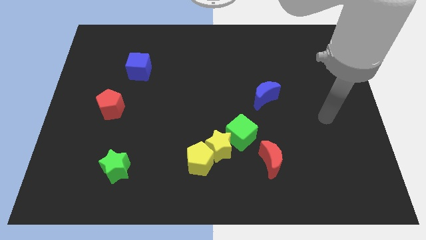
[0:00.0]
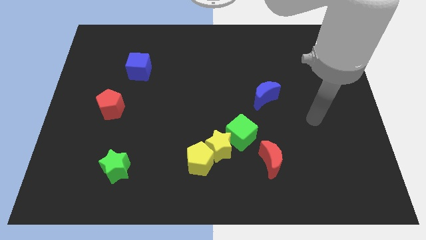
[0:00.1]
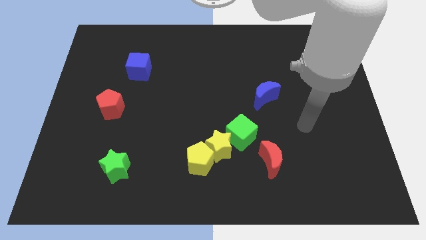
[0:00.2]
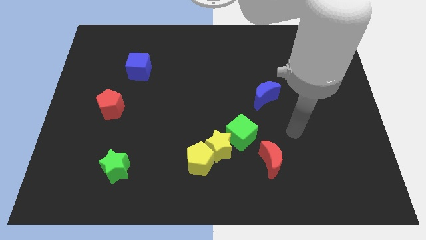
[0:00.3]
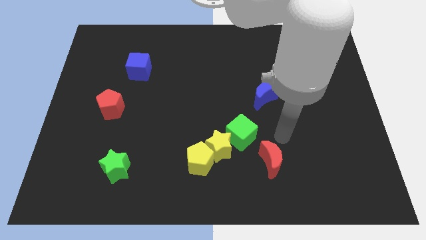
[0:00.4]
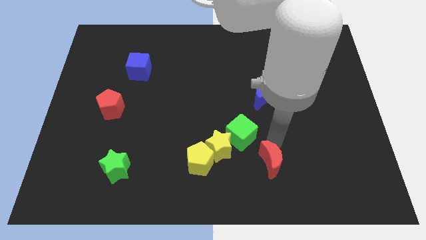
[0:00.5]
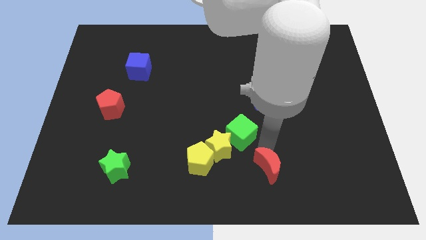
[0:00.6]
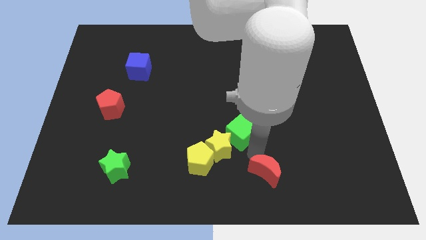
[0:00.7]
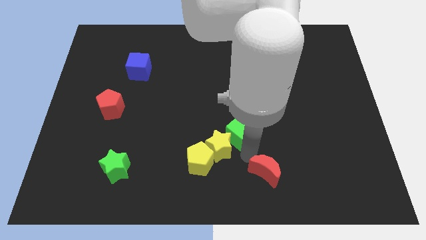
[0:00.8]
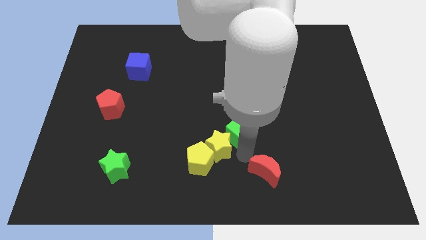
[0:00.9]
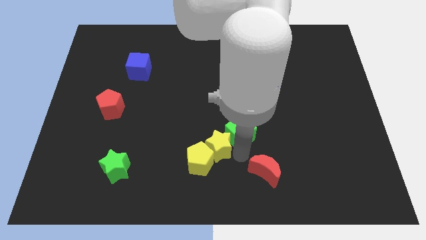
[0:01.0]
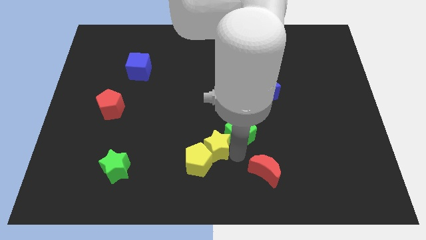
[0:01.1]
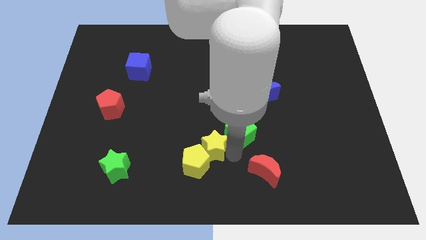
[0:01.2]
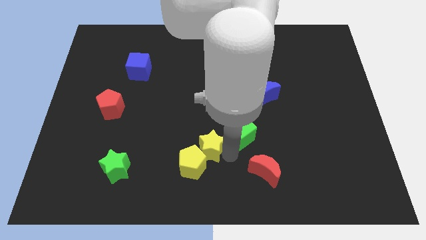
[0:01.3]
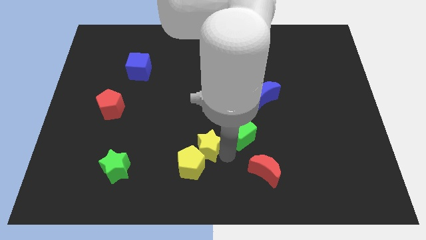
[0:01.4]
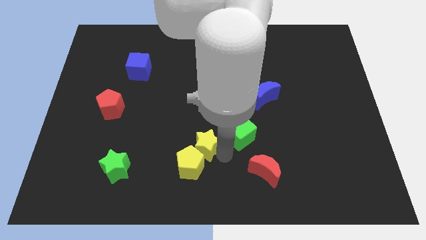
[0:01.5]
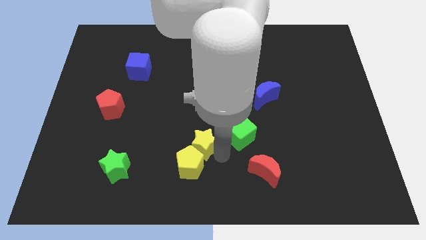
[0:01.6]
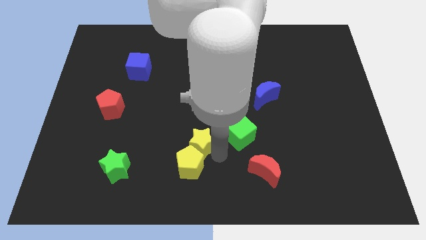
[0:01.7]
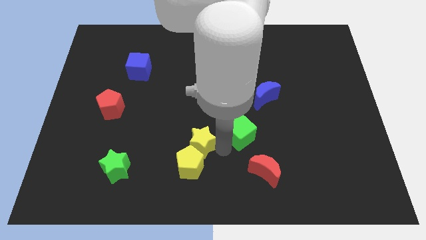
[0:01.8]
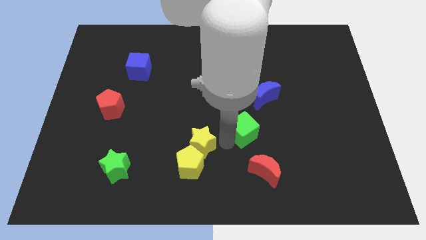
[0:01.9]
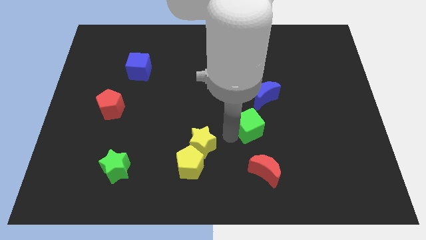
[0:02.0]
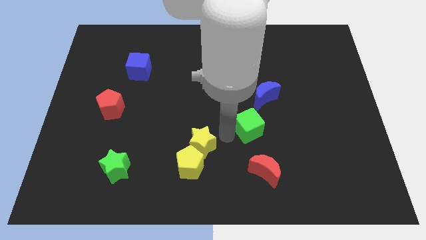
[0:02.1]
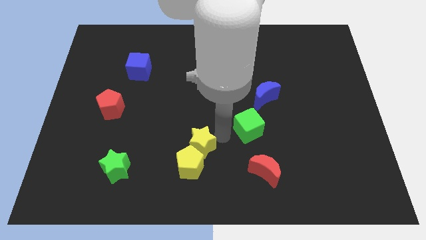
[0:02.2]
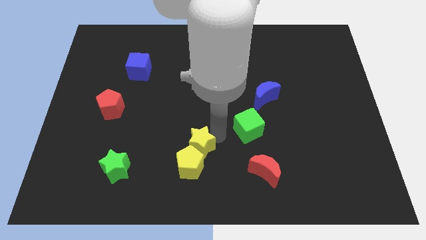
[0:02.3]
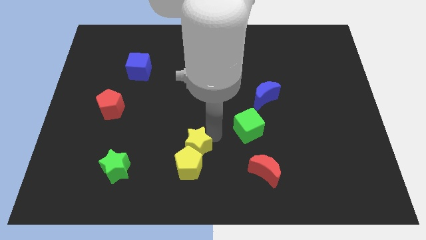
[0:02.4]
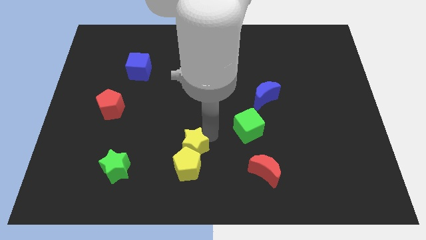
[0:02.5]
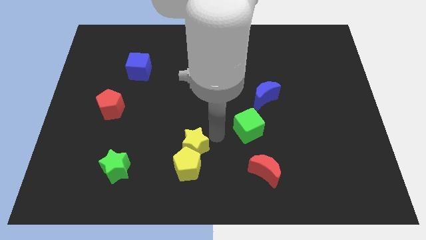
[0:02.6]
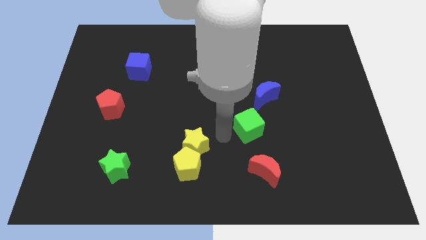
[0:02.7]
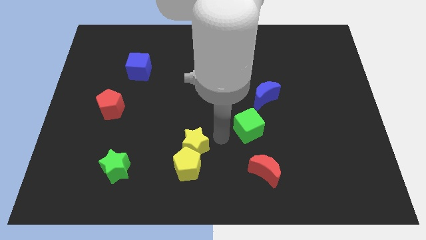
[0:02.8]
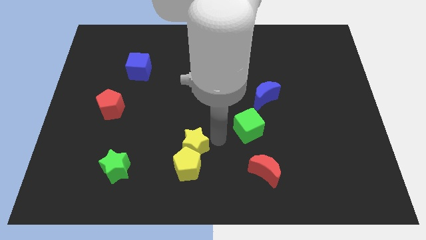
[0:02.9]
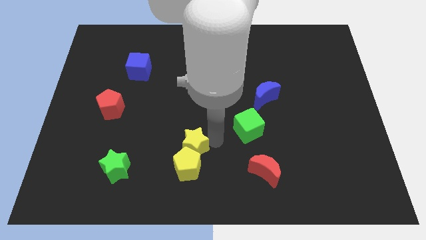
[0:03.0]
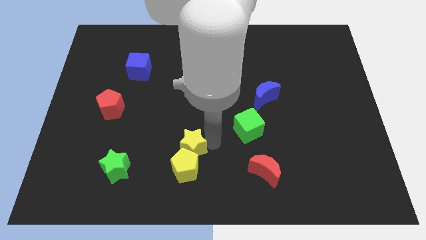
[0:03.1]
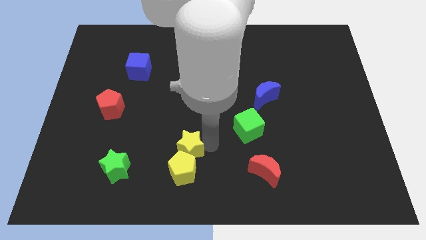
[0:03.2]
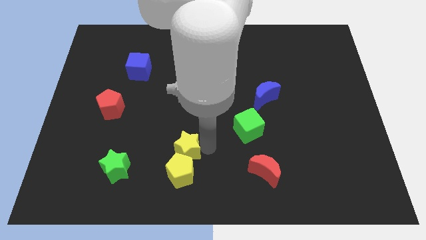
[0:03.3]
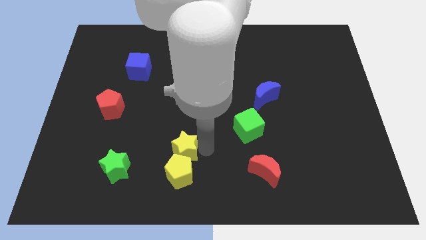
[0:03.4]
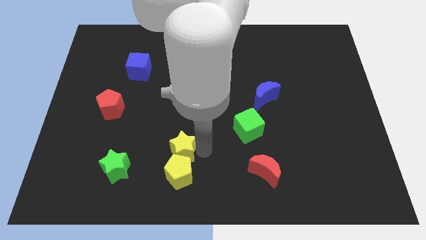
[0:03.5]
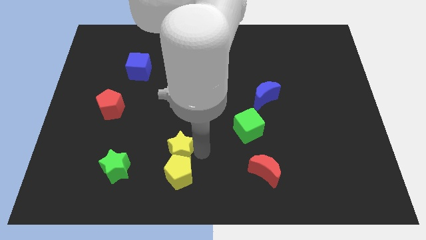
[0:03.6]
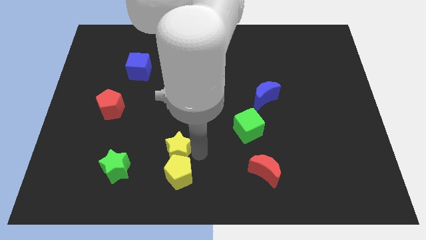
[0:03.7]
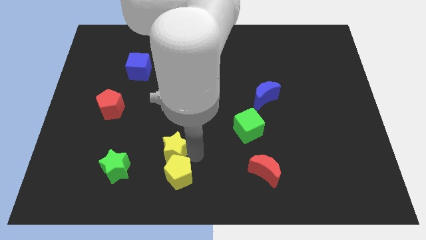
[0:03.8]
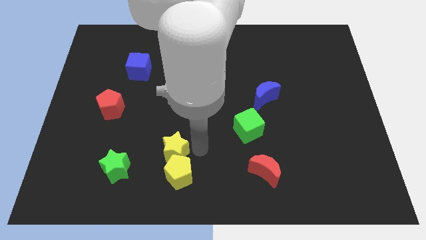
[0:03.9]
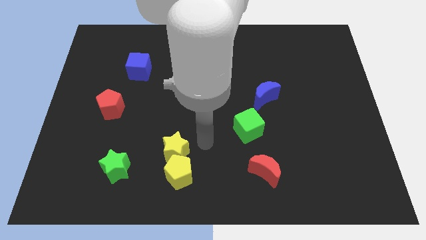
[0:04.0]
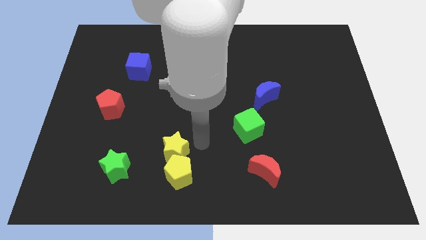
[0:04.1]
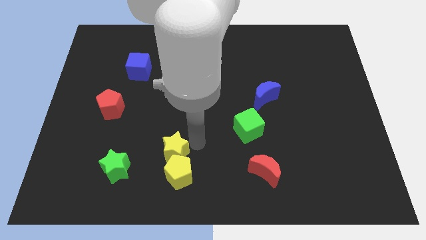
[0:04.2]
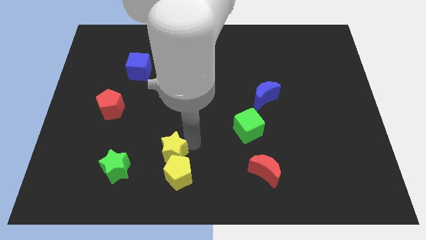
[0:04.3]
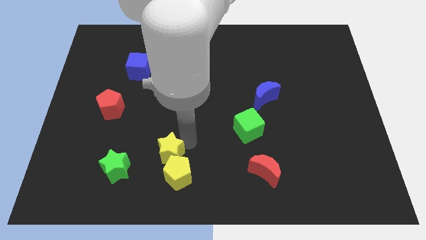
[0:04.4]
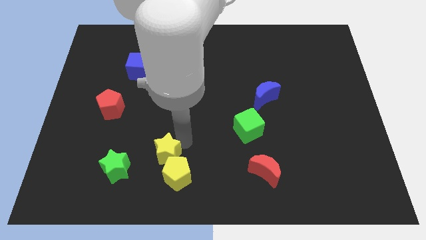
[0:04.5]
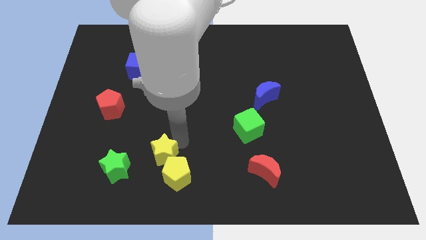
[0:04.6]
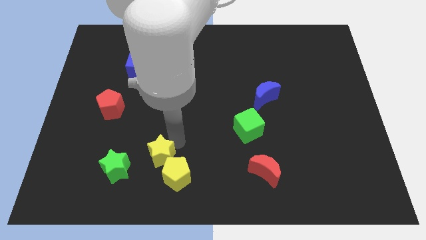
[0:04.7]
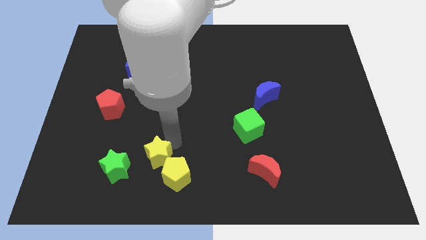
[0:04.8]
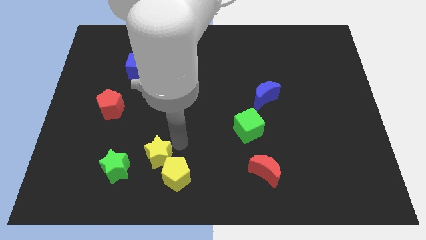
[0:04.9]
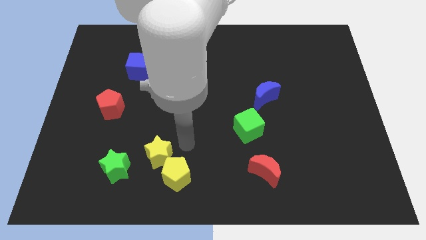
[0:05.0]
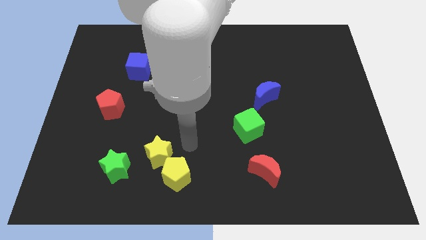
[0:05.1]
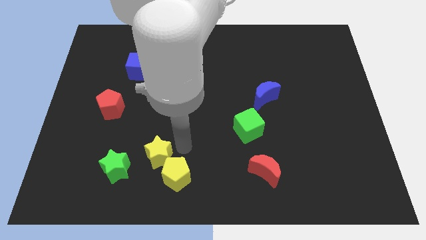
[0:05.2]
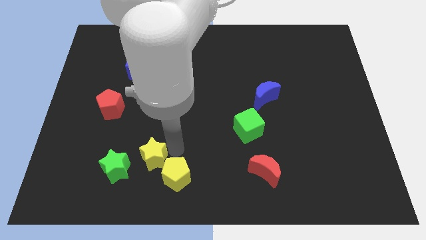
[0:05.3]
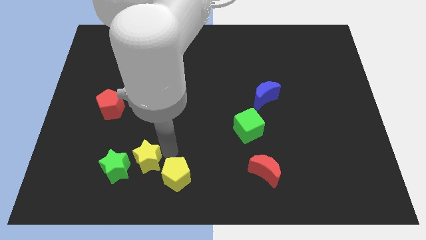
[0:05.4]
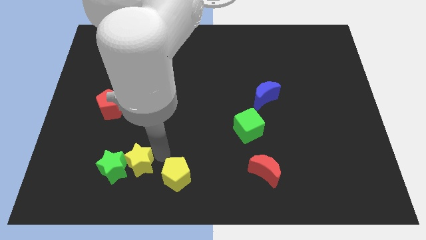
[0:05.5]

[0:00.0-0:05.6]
put the yellow star next to the green star
